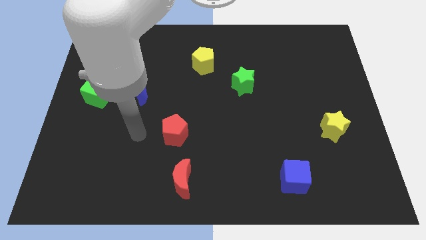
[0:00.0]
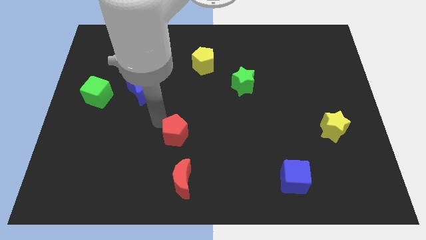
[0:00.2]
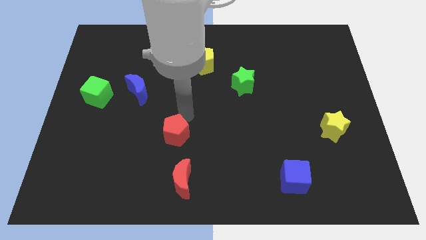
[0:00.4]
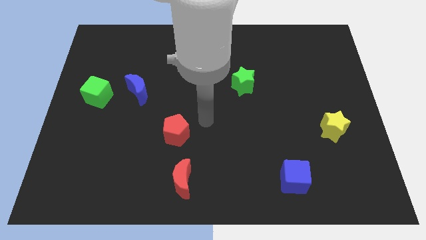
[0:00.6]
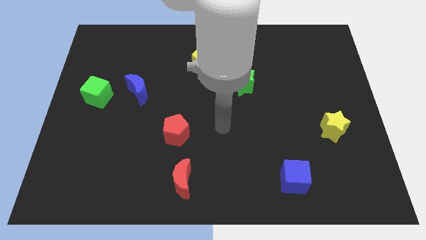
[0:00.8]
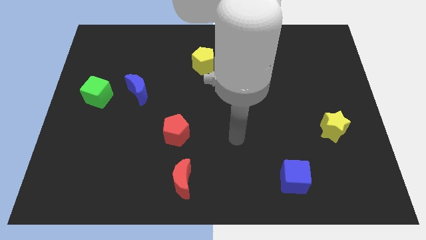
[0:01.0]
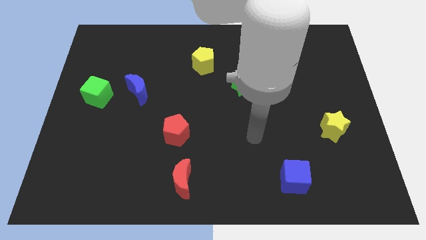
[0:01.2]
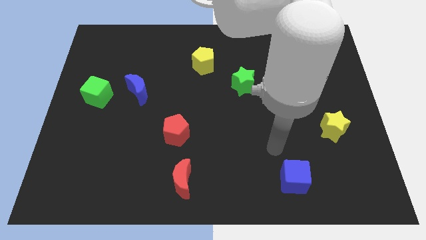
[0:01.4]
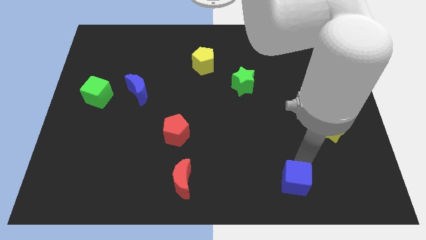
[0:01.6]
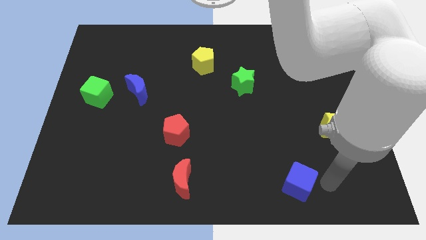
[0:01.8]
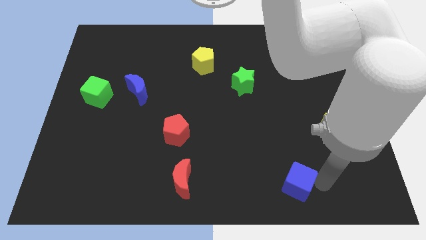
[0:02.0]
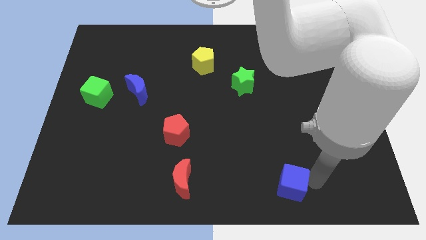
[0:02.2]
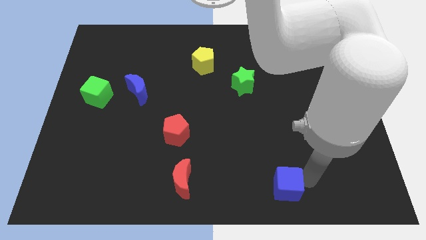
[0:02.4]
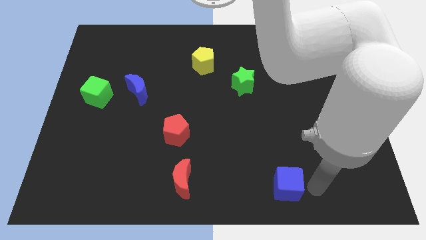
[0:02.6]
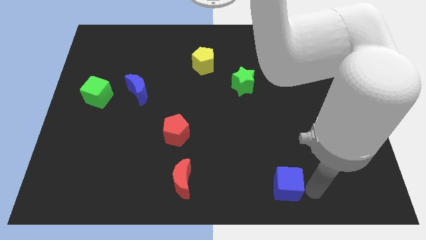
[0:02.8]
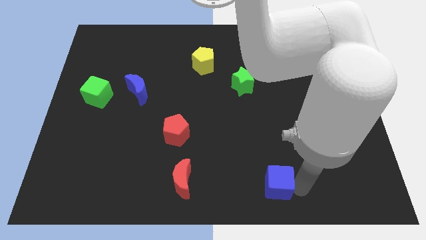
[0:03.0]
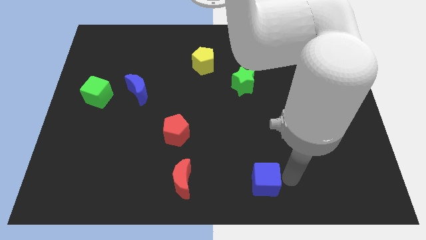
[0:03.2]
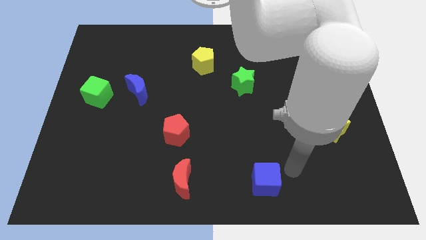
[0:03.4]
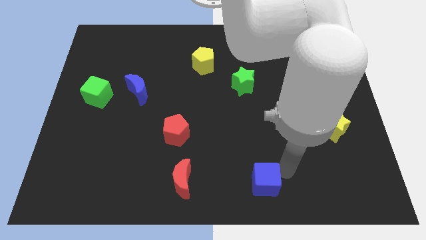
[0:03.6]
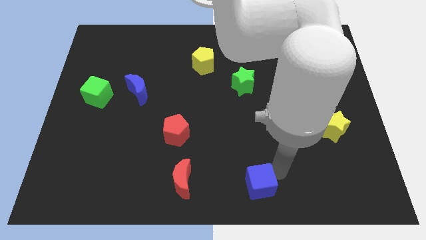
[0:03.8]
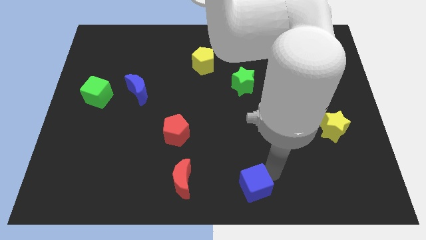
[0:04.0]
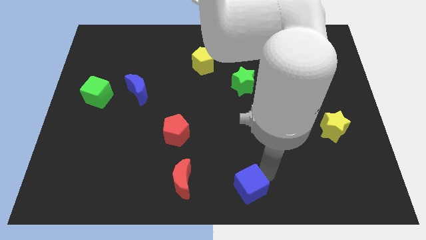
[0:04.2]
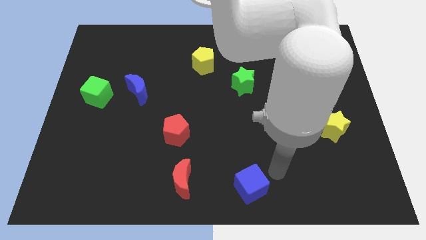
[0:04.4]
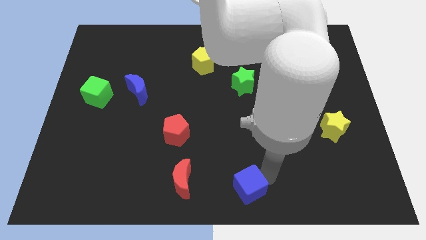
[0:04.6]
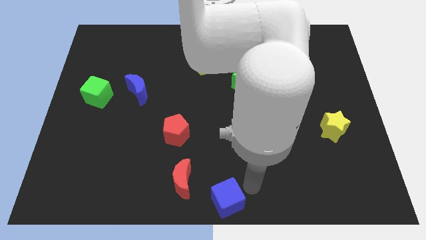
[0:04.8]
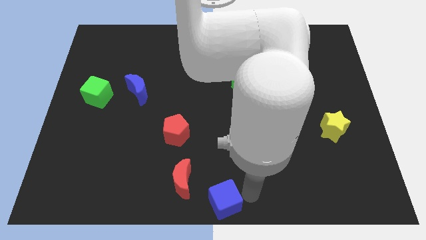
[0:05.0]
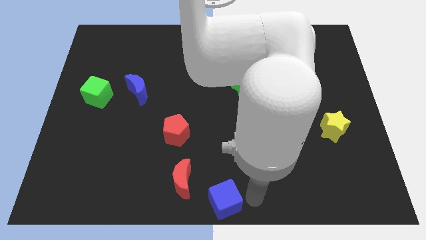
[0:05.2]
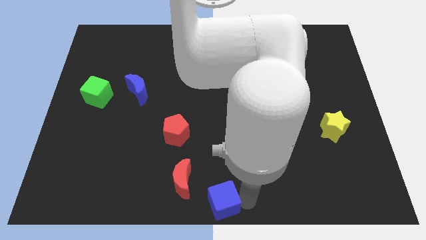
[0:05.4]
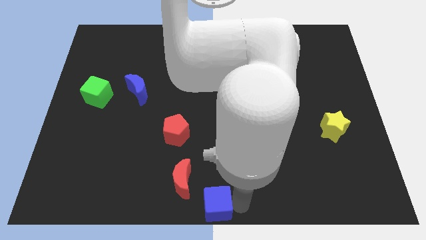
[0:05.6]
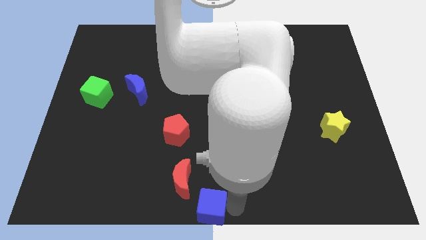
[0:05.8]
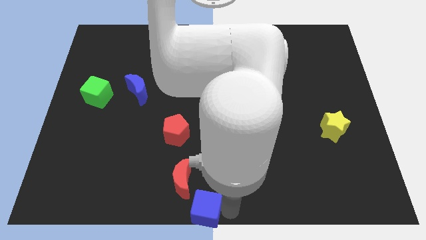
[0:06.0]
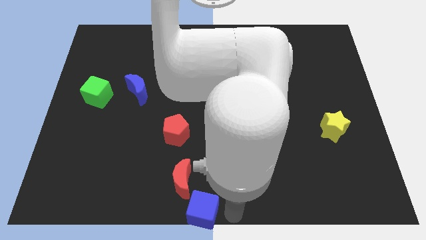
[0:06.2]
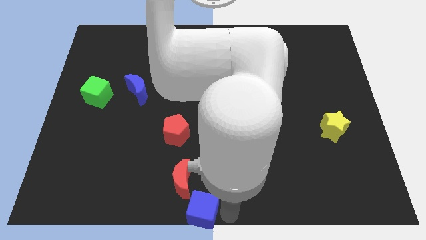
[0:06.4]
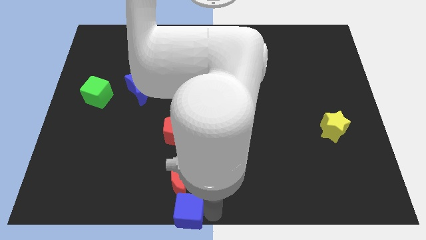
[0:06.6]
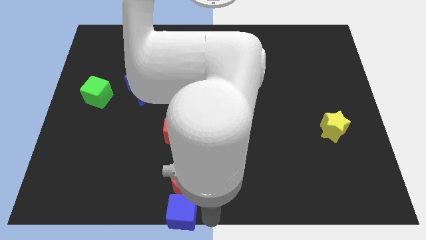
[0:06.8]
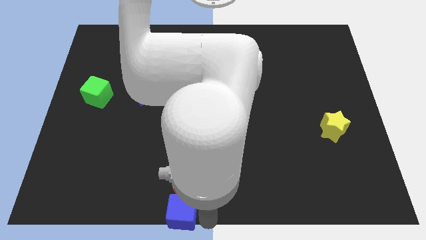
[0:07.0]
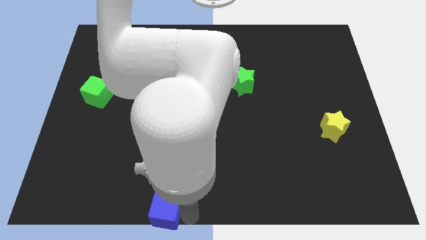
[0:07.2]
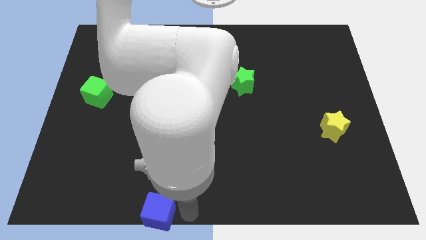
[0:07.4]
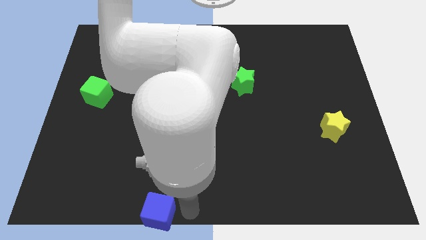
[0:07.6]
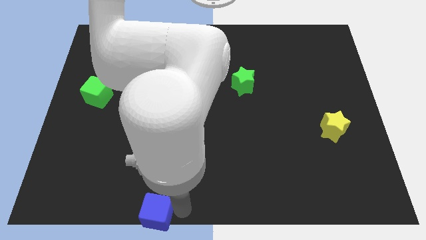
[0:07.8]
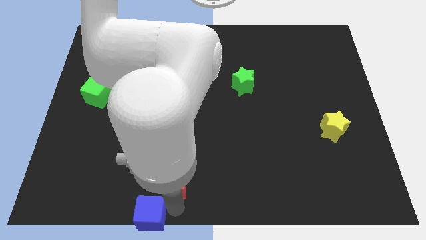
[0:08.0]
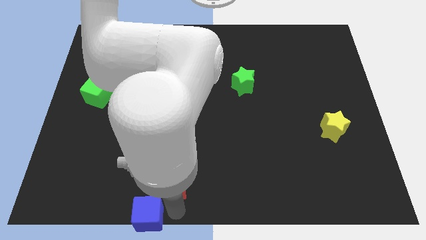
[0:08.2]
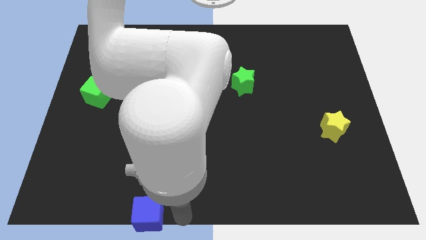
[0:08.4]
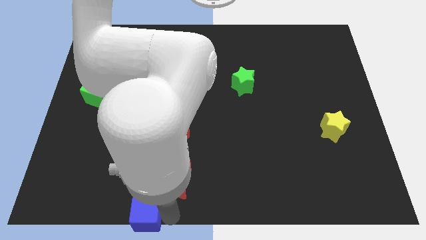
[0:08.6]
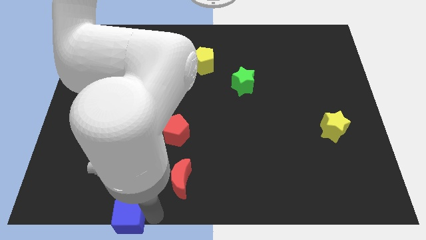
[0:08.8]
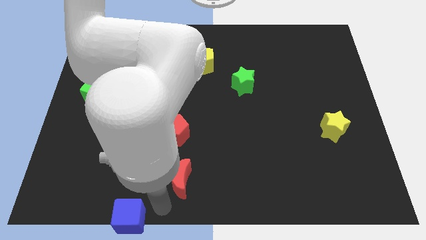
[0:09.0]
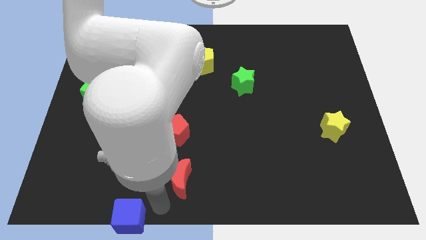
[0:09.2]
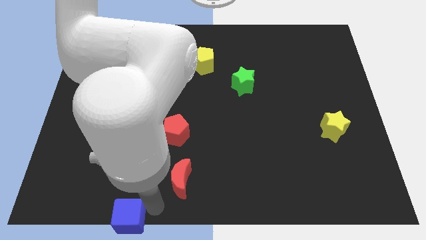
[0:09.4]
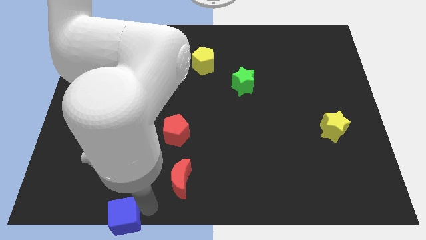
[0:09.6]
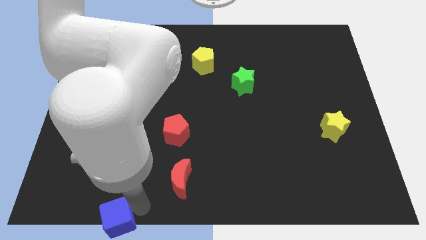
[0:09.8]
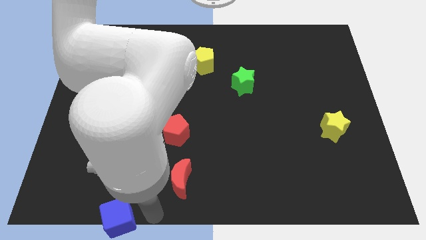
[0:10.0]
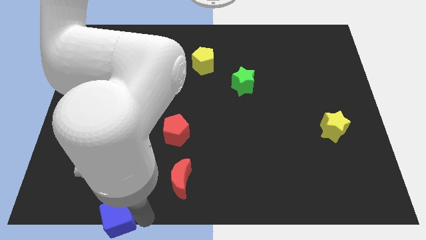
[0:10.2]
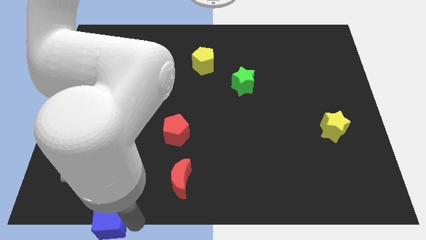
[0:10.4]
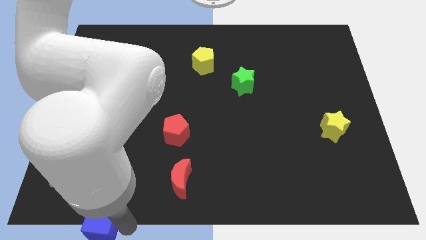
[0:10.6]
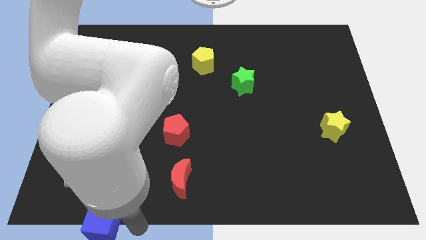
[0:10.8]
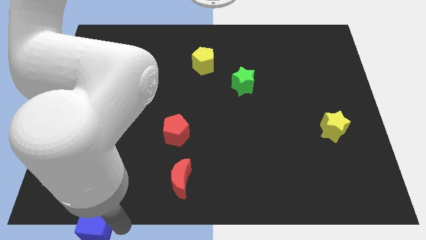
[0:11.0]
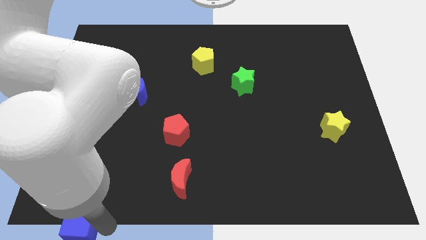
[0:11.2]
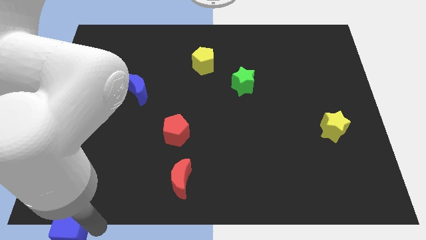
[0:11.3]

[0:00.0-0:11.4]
push the blue cube to the bottom left
